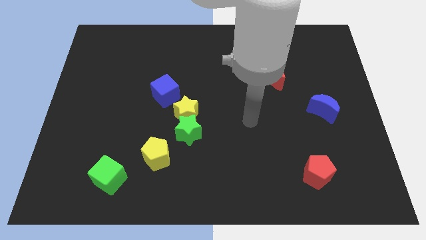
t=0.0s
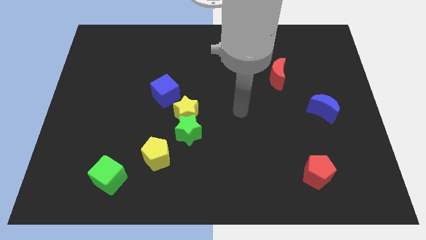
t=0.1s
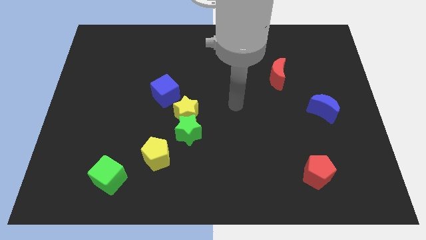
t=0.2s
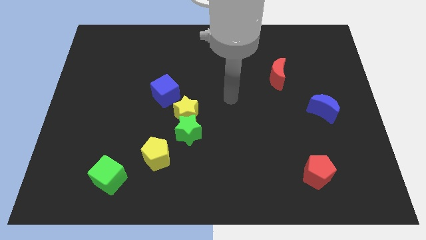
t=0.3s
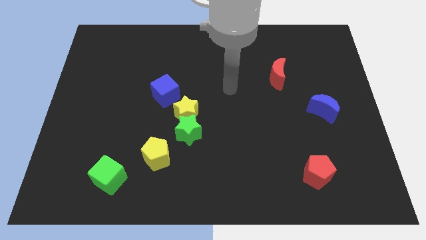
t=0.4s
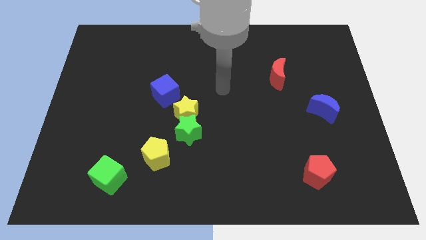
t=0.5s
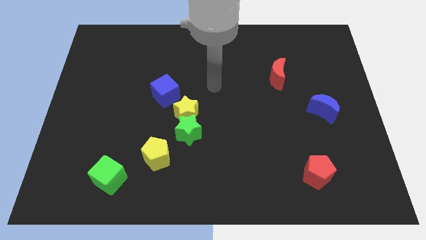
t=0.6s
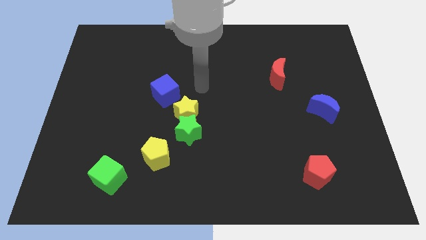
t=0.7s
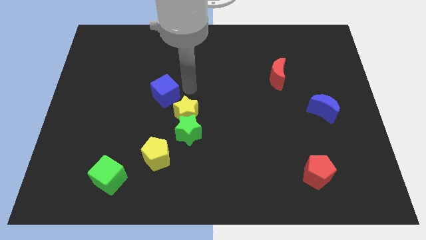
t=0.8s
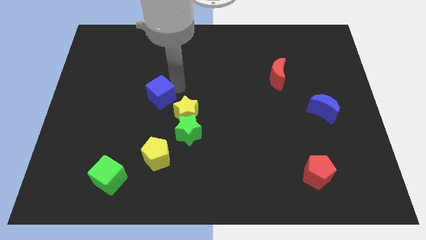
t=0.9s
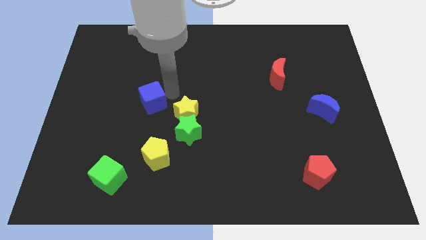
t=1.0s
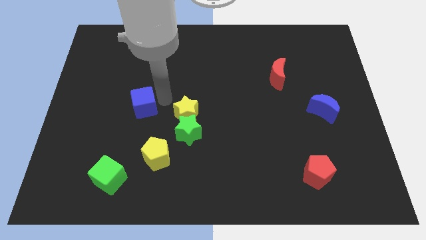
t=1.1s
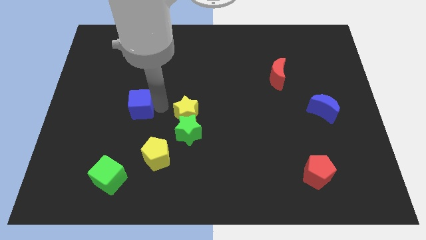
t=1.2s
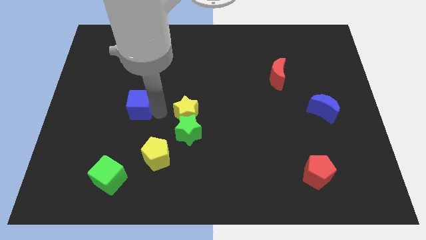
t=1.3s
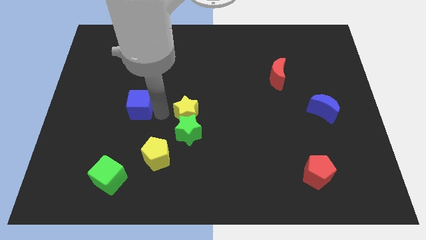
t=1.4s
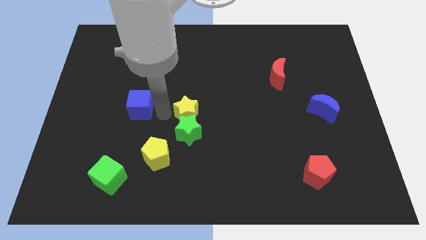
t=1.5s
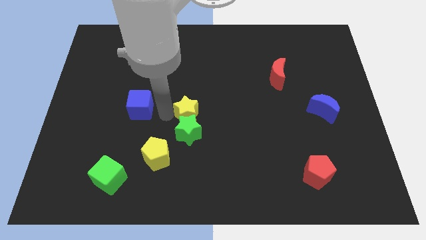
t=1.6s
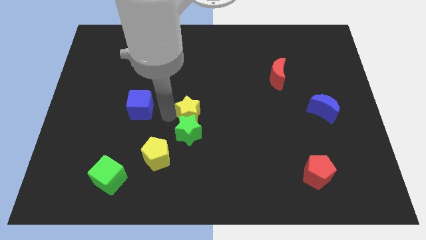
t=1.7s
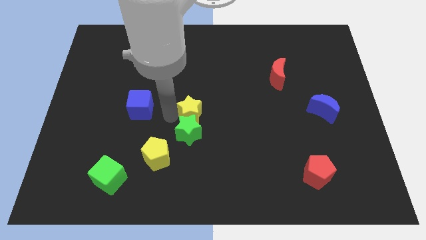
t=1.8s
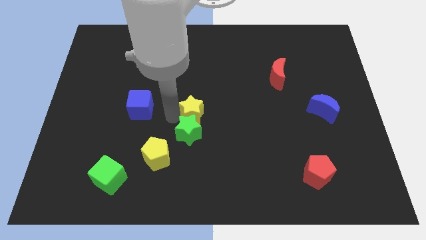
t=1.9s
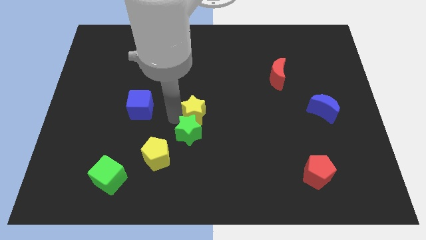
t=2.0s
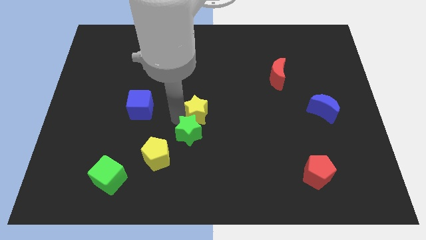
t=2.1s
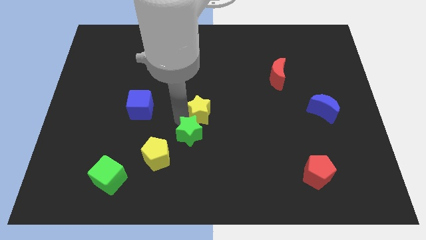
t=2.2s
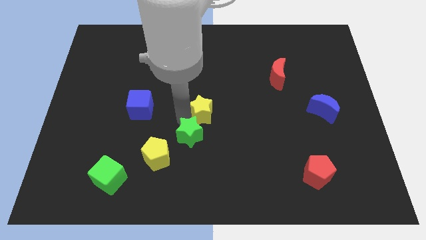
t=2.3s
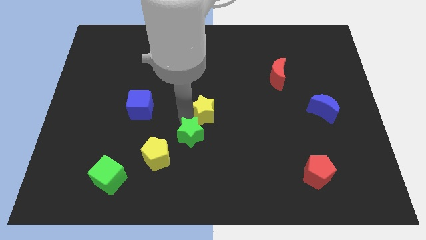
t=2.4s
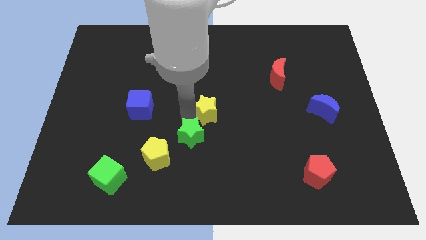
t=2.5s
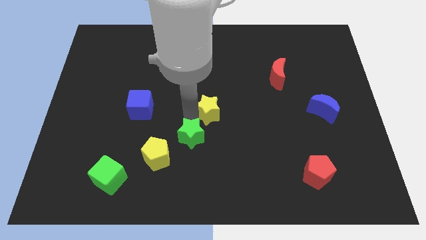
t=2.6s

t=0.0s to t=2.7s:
move the yellow star away from the green star and blue cube

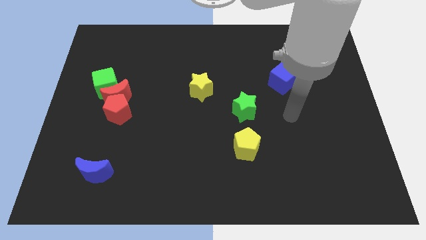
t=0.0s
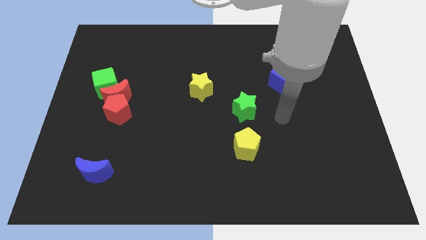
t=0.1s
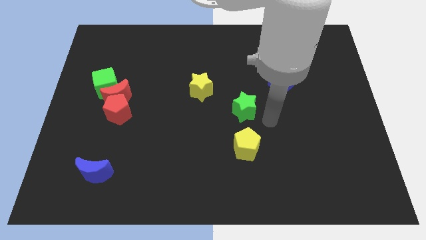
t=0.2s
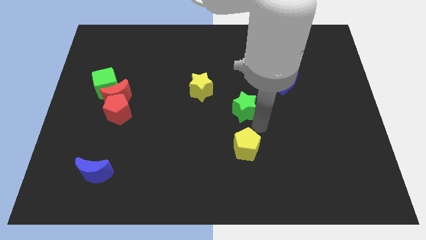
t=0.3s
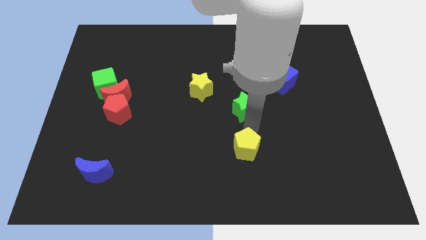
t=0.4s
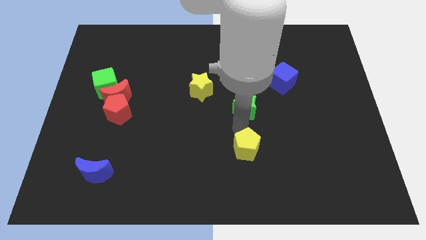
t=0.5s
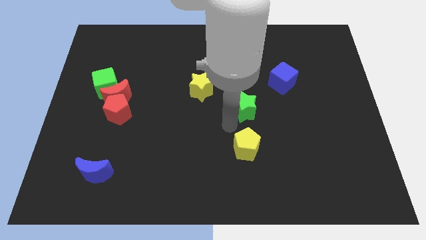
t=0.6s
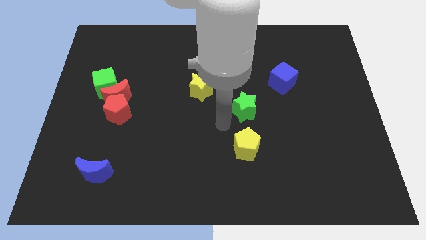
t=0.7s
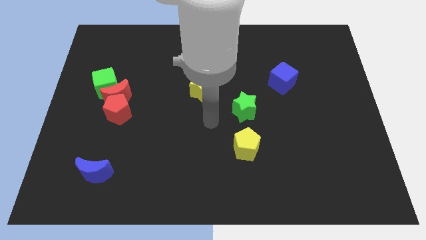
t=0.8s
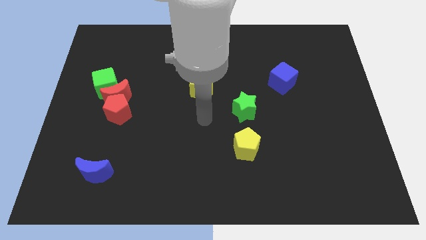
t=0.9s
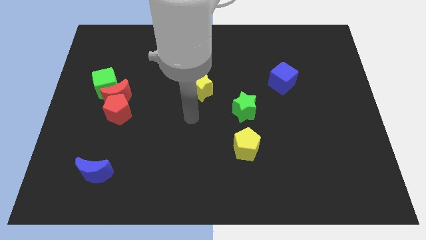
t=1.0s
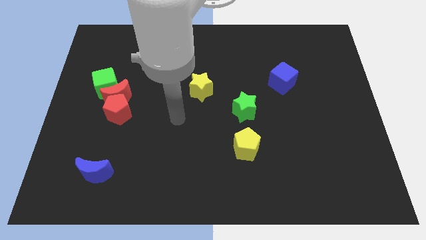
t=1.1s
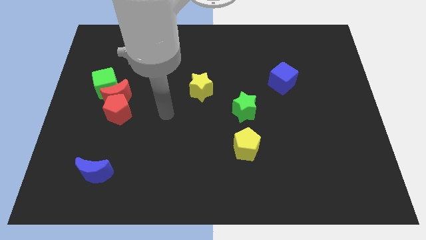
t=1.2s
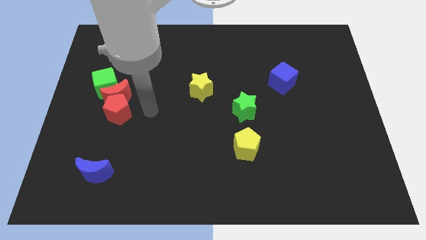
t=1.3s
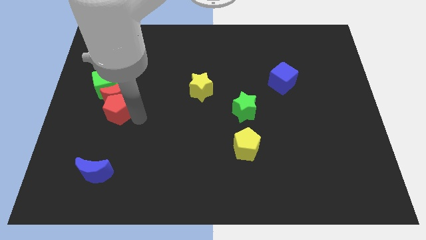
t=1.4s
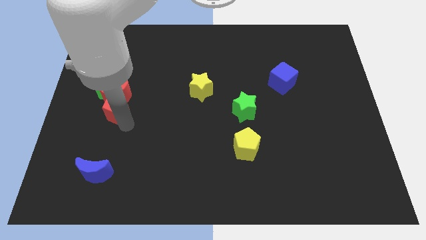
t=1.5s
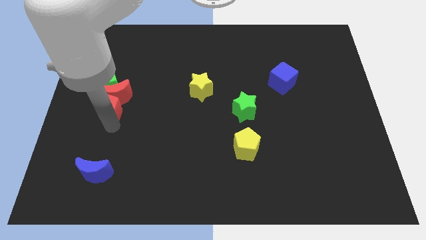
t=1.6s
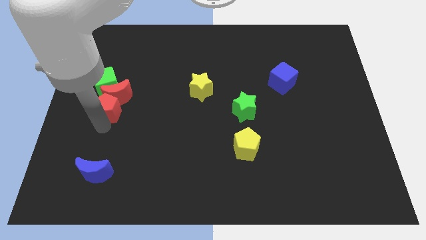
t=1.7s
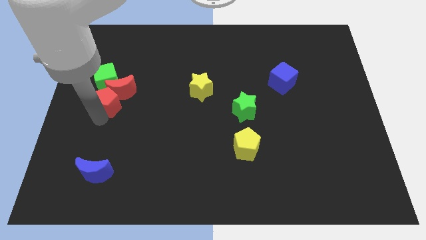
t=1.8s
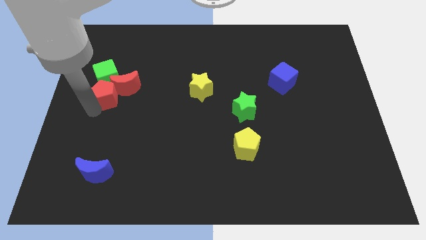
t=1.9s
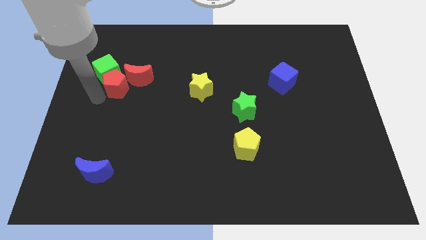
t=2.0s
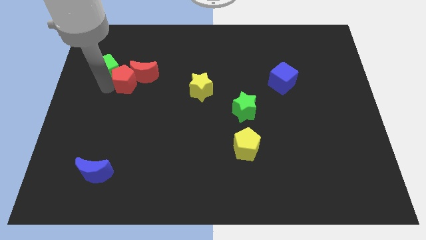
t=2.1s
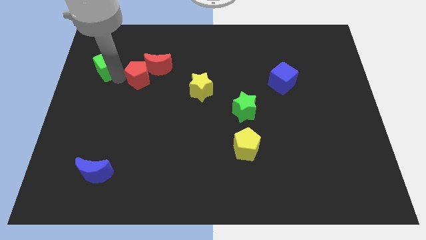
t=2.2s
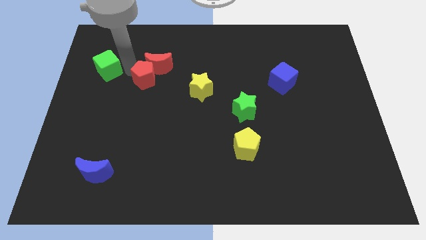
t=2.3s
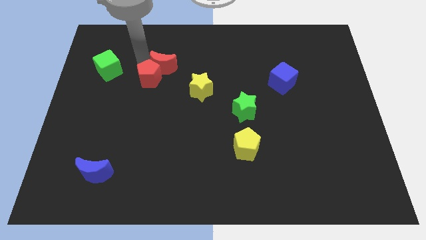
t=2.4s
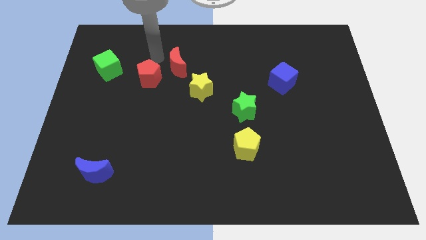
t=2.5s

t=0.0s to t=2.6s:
pull the red moon apart from the red pentagon and green cube

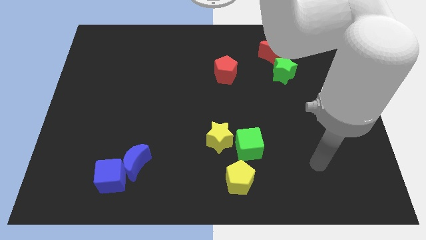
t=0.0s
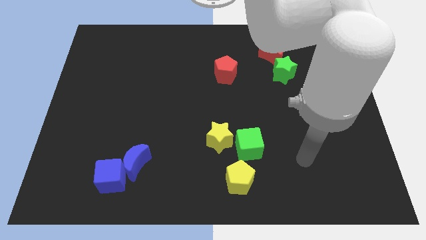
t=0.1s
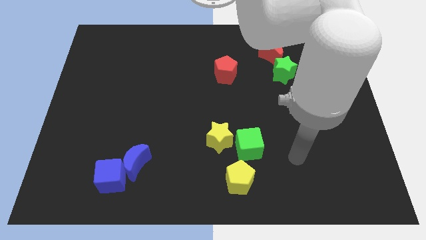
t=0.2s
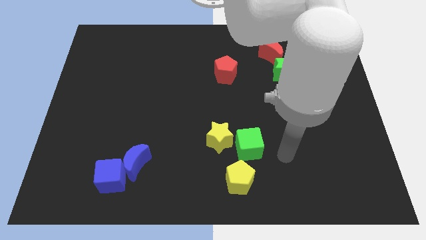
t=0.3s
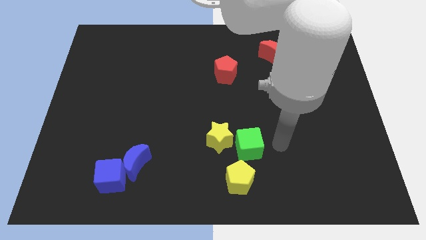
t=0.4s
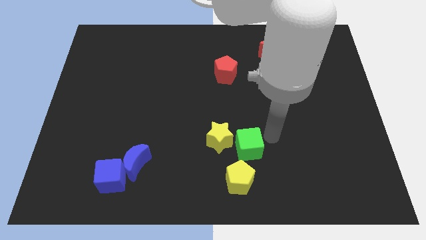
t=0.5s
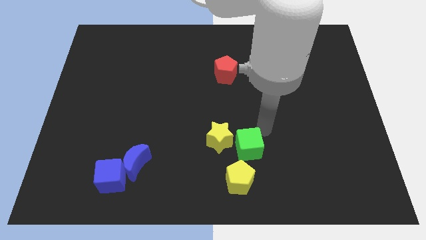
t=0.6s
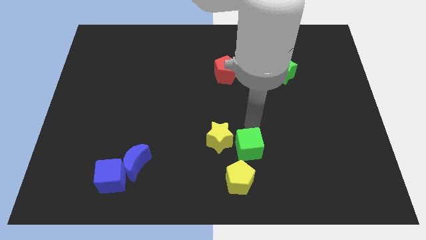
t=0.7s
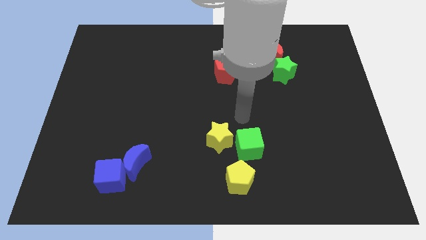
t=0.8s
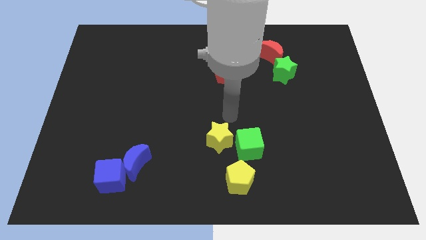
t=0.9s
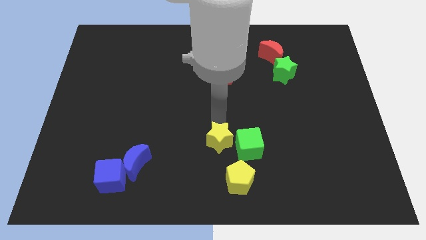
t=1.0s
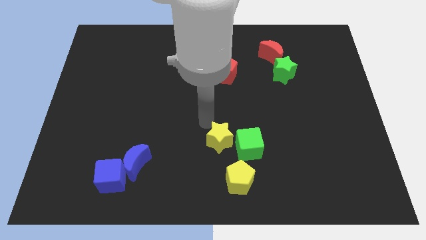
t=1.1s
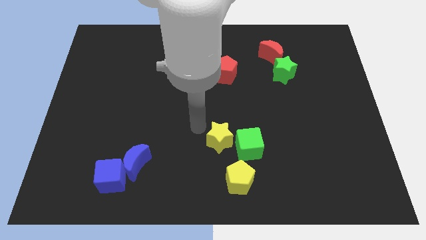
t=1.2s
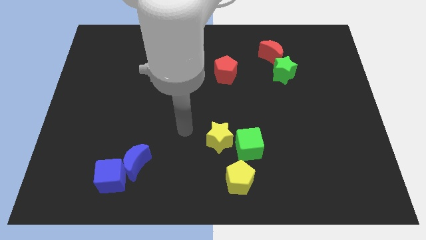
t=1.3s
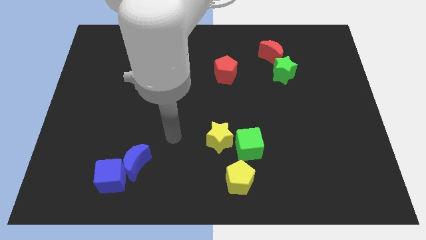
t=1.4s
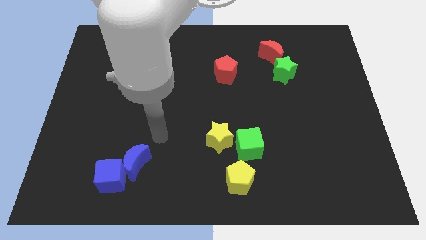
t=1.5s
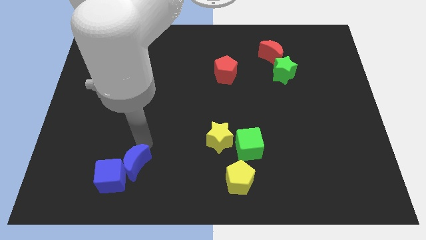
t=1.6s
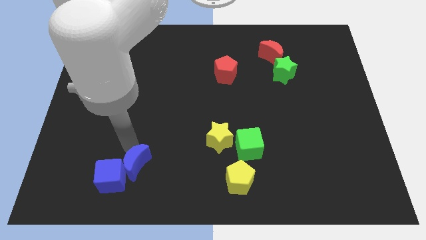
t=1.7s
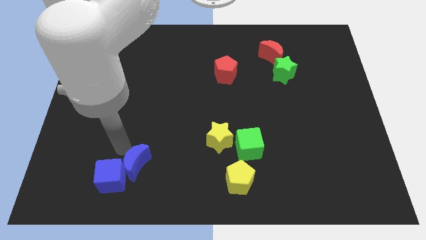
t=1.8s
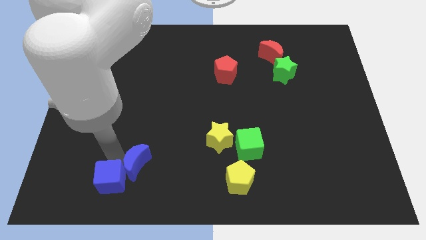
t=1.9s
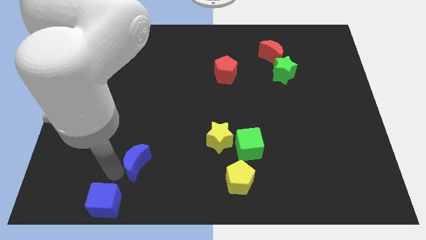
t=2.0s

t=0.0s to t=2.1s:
separate the blue moon from the blue cube

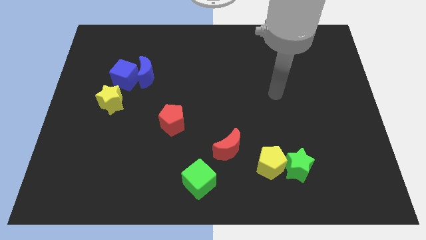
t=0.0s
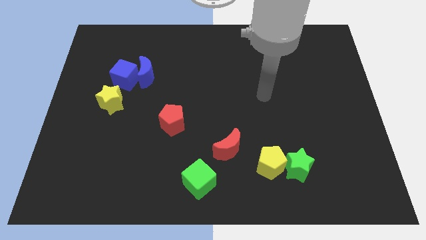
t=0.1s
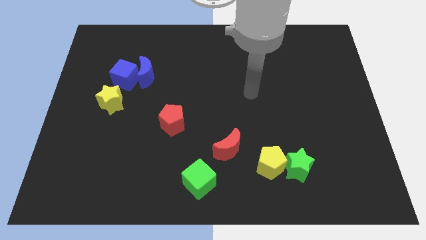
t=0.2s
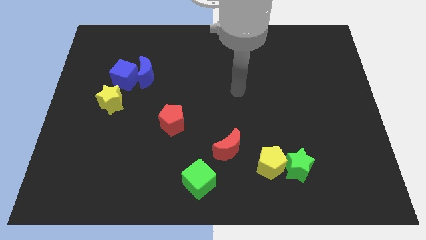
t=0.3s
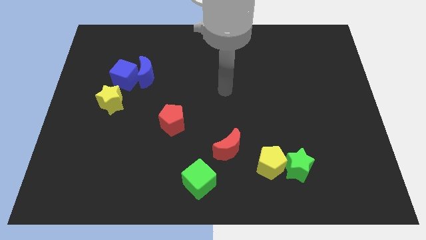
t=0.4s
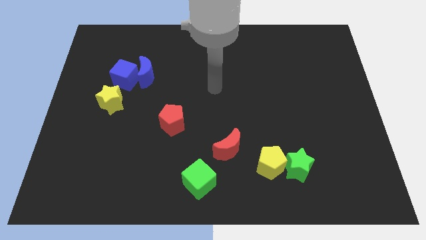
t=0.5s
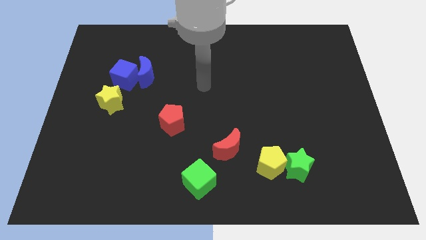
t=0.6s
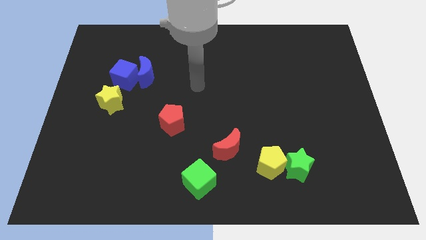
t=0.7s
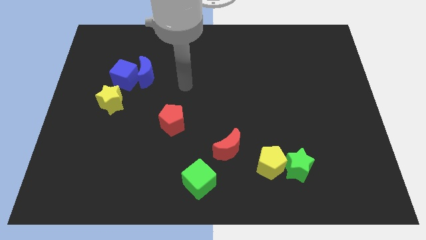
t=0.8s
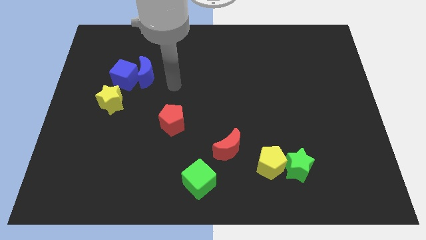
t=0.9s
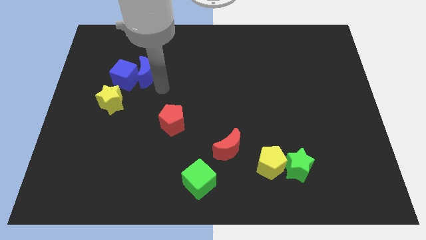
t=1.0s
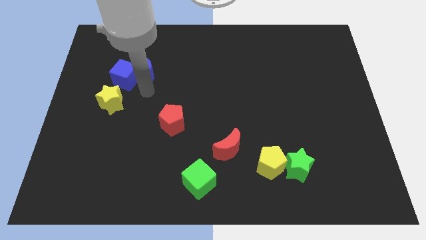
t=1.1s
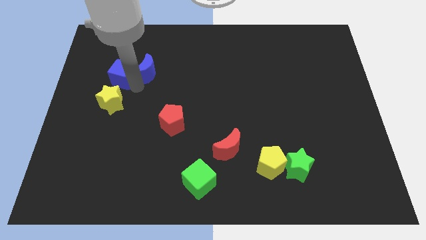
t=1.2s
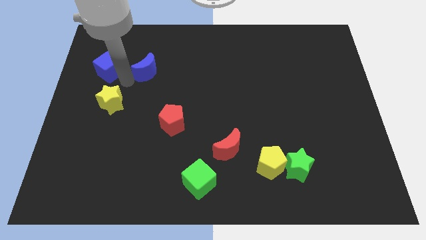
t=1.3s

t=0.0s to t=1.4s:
move the blue moon away from the blue cube

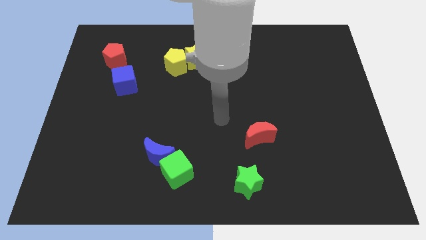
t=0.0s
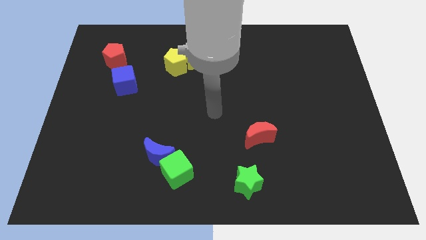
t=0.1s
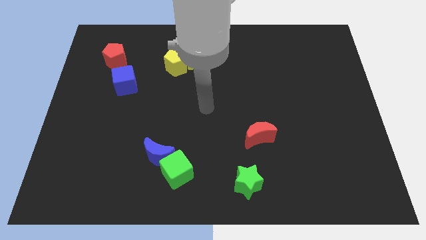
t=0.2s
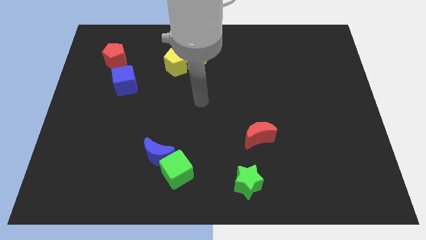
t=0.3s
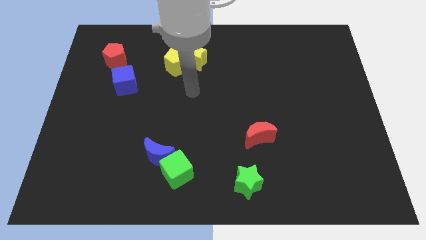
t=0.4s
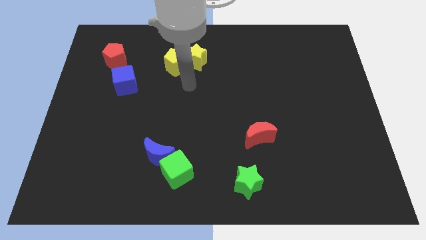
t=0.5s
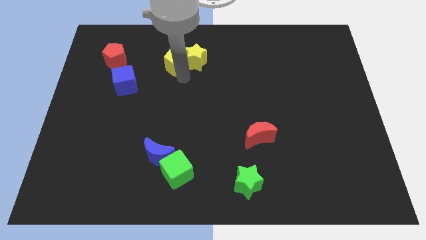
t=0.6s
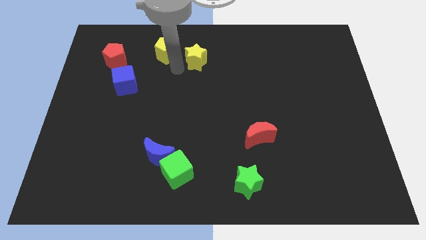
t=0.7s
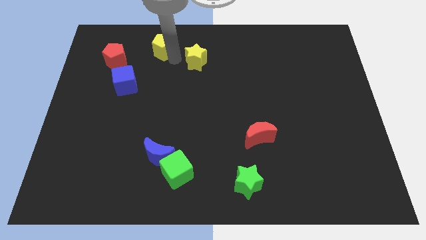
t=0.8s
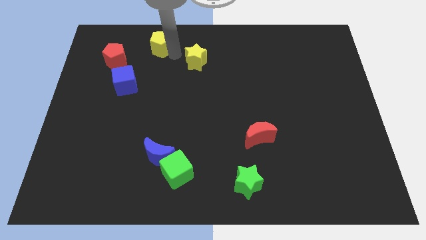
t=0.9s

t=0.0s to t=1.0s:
move the yellow star away from the yellow pentagon
